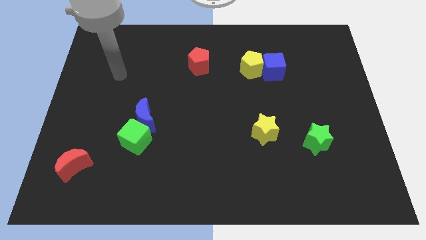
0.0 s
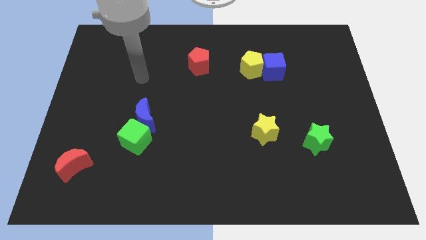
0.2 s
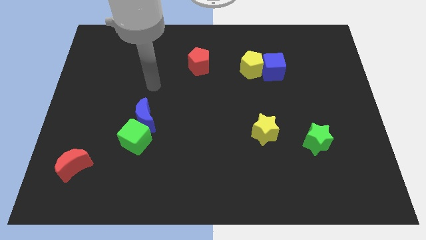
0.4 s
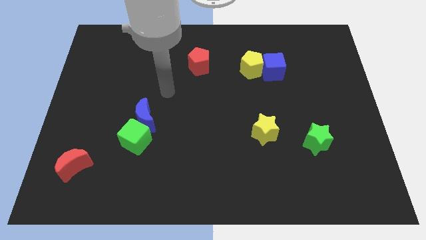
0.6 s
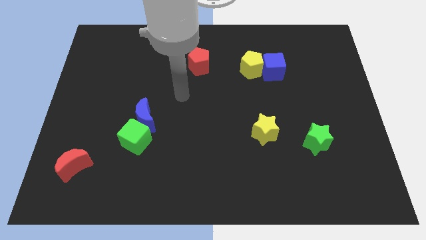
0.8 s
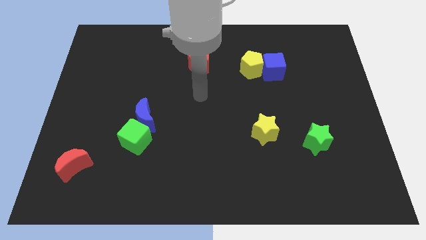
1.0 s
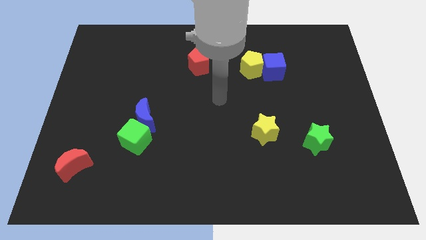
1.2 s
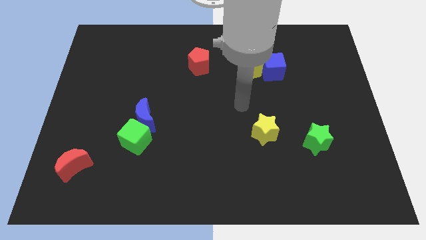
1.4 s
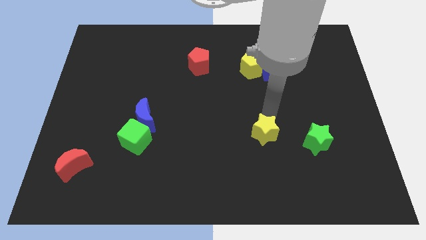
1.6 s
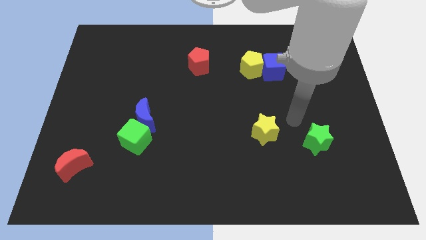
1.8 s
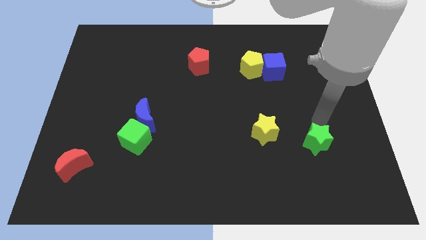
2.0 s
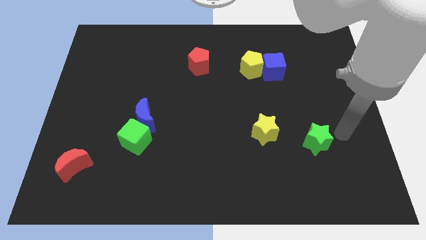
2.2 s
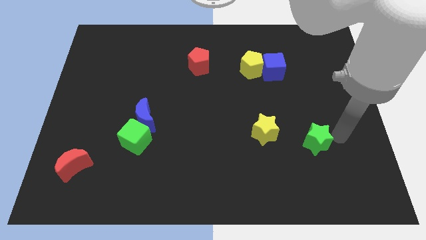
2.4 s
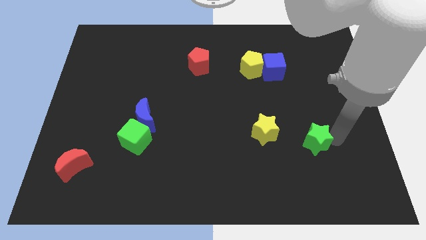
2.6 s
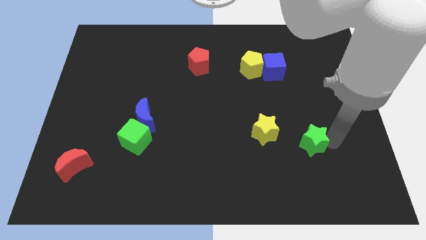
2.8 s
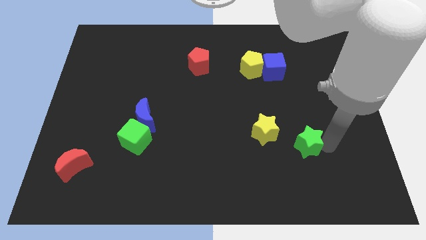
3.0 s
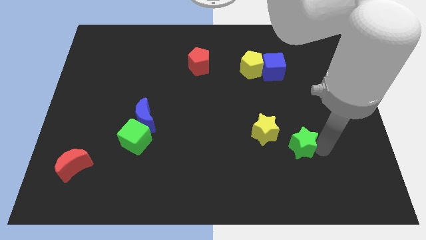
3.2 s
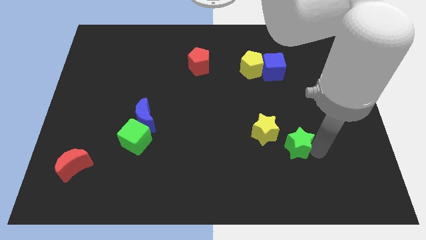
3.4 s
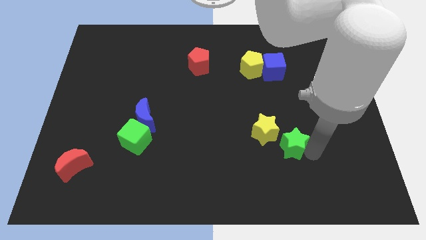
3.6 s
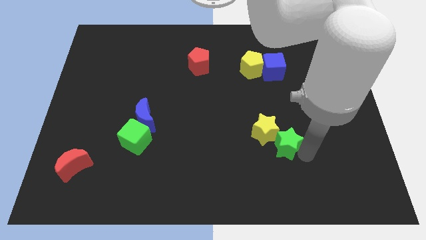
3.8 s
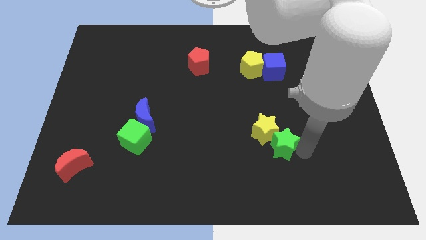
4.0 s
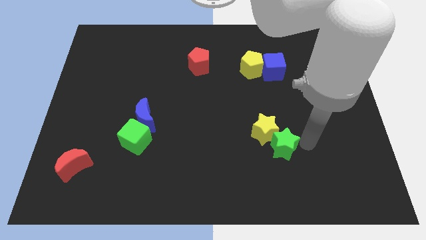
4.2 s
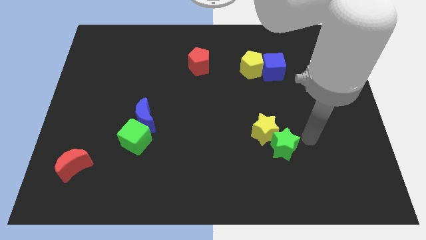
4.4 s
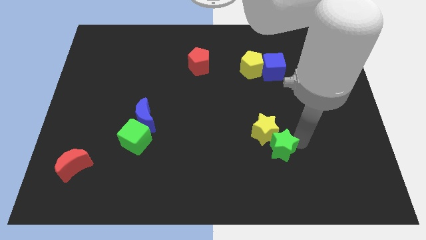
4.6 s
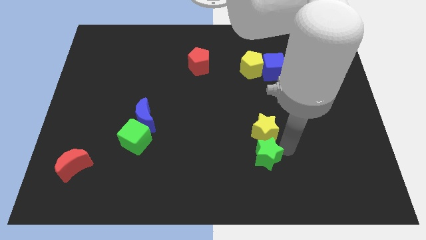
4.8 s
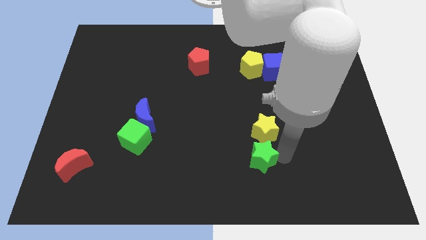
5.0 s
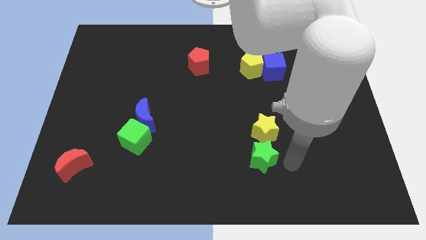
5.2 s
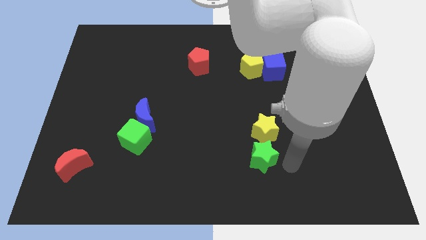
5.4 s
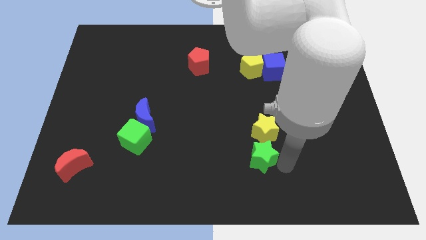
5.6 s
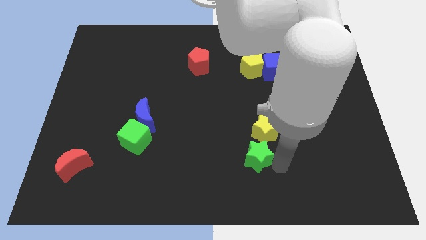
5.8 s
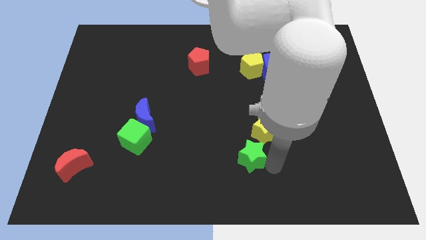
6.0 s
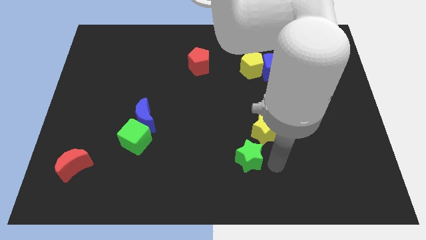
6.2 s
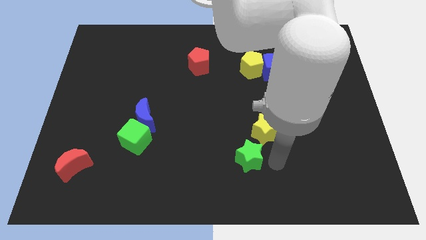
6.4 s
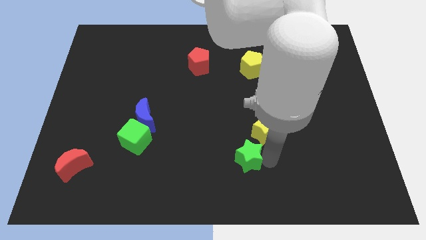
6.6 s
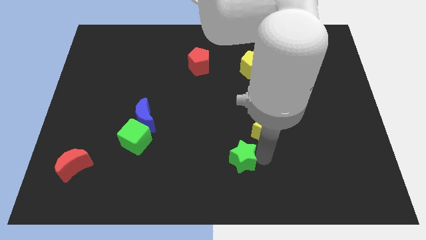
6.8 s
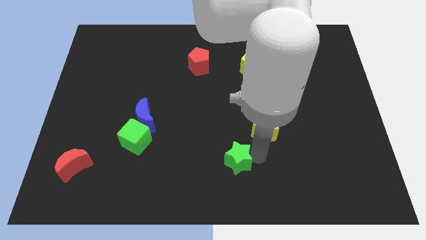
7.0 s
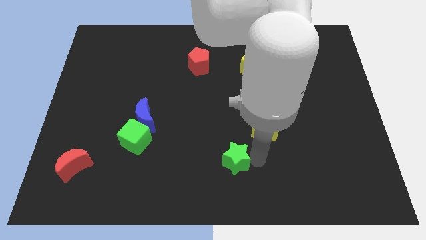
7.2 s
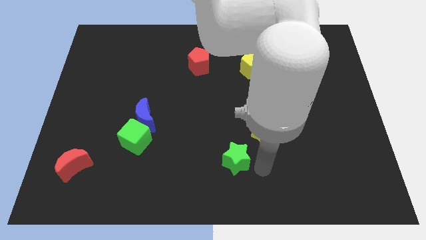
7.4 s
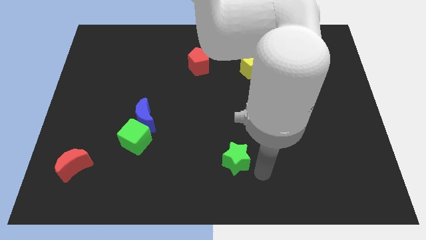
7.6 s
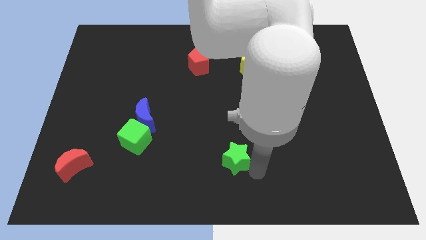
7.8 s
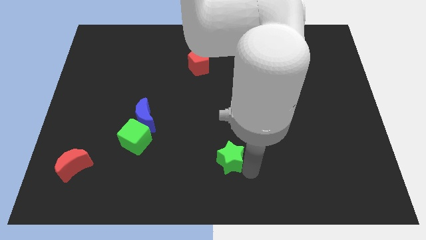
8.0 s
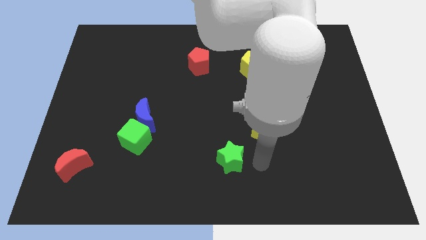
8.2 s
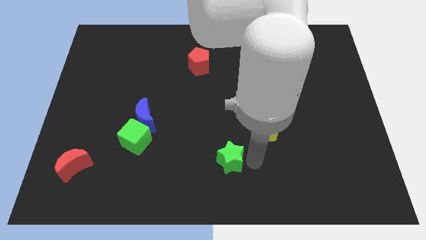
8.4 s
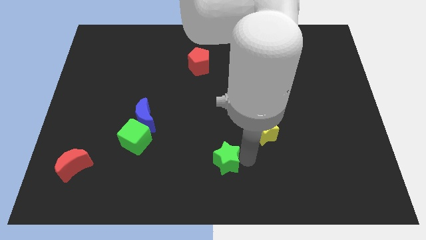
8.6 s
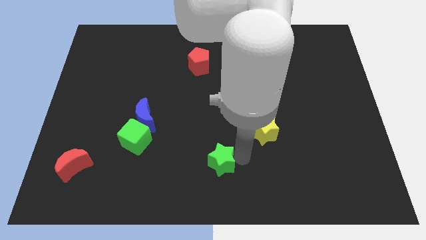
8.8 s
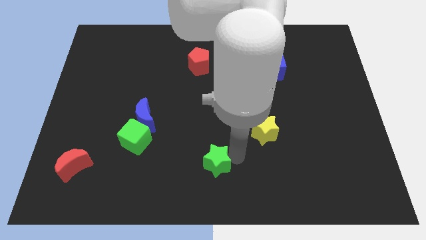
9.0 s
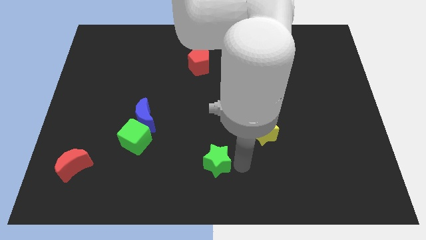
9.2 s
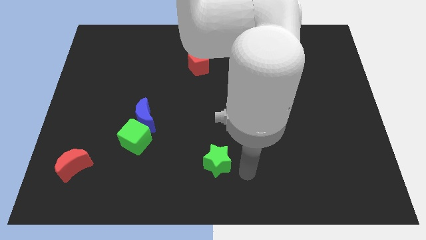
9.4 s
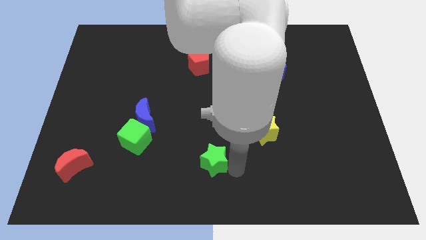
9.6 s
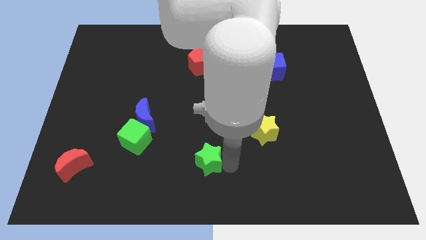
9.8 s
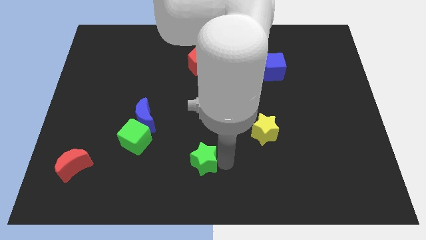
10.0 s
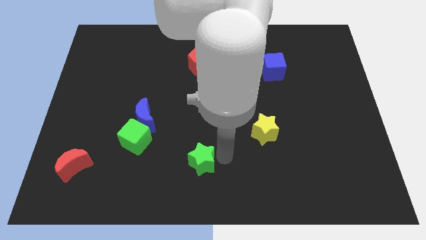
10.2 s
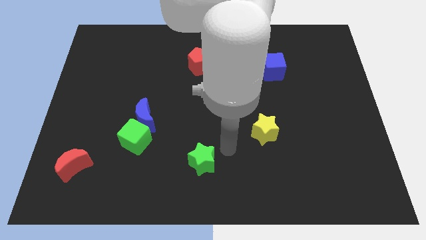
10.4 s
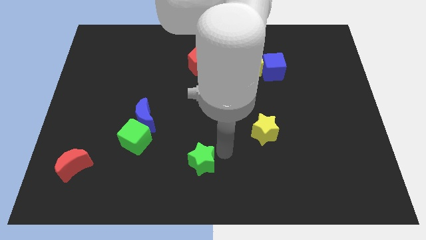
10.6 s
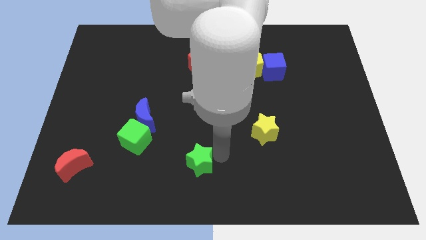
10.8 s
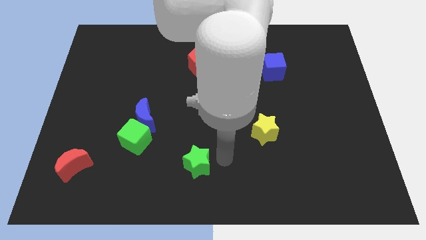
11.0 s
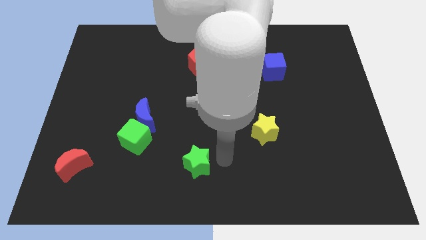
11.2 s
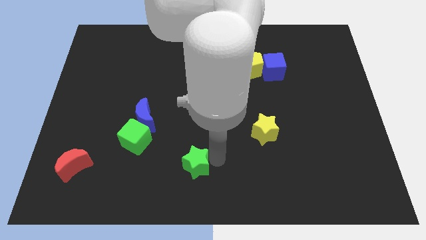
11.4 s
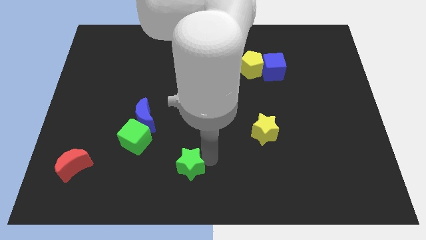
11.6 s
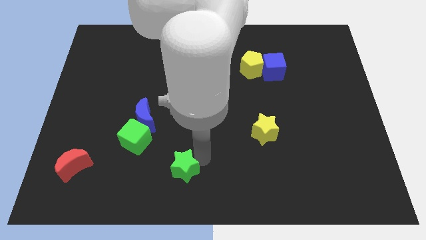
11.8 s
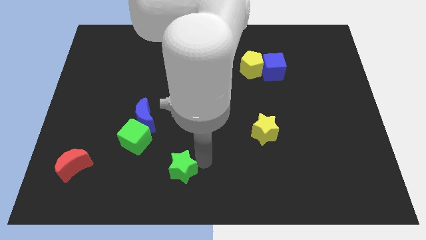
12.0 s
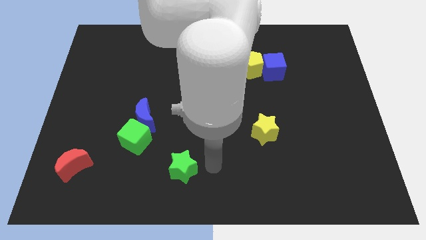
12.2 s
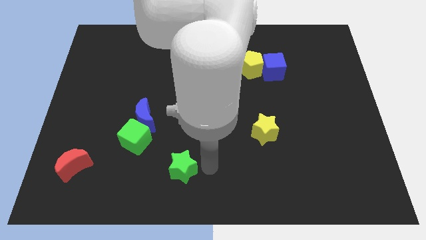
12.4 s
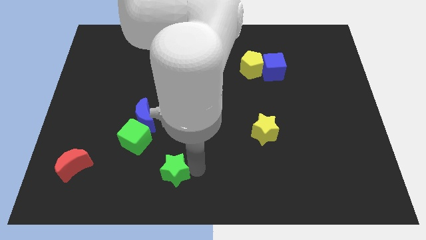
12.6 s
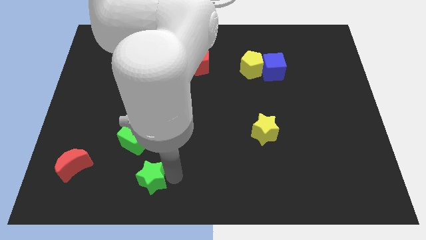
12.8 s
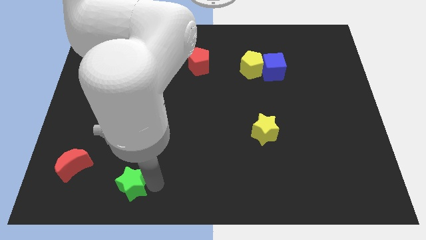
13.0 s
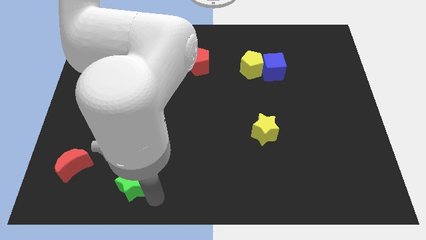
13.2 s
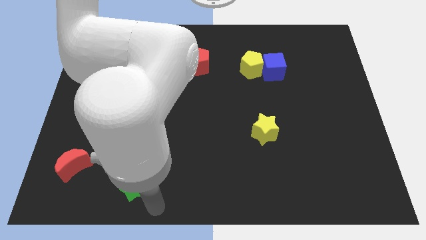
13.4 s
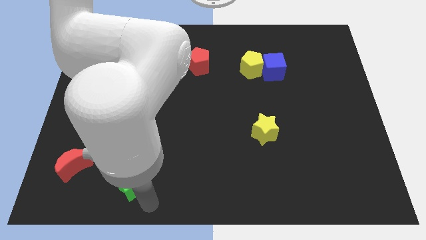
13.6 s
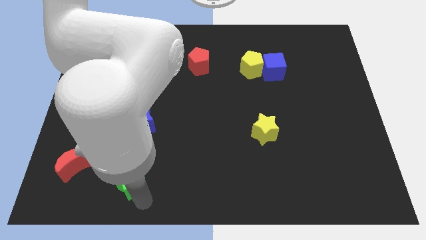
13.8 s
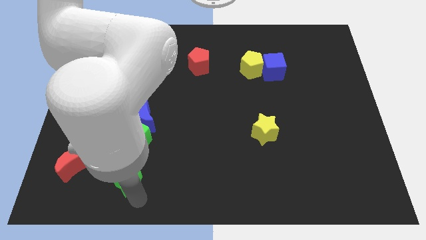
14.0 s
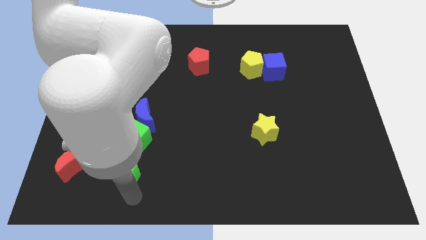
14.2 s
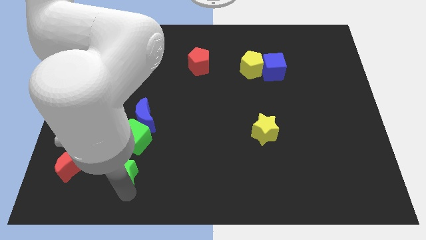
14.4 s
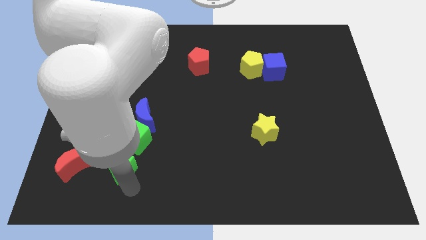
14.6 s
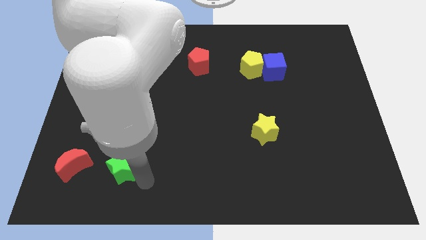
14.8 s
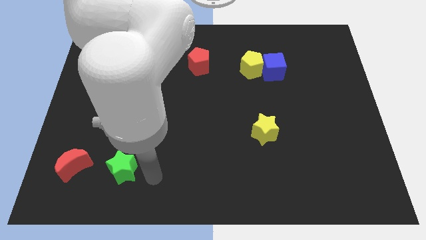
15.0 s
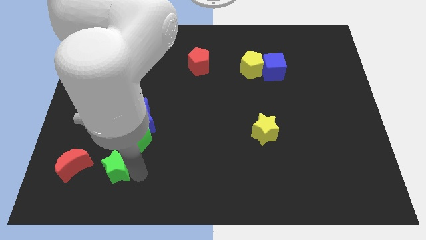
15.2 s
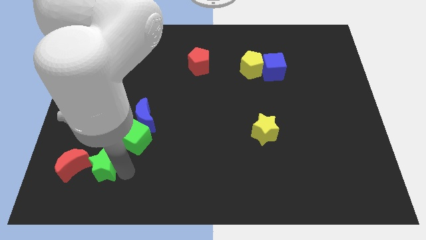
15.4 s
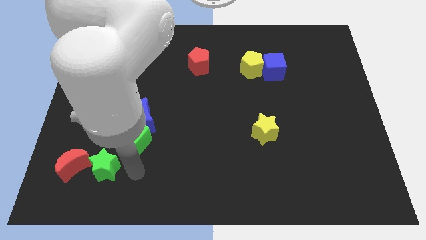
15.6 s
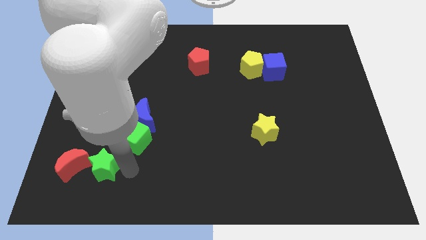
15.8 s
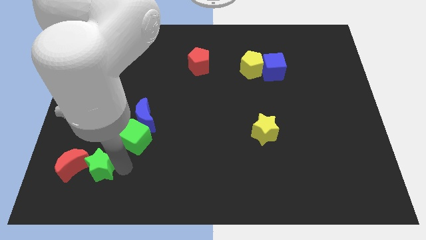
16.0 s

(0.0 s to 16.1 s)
move the green star to the red moon

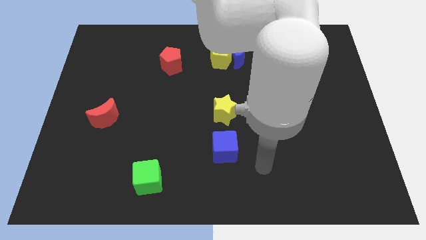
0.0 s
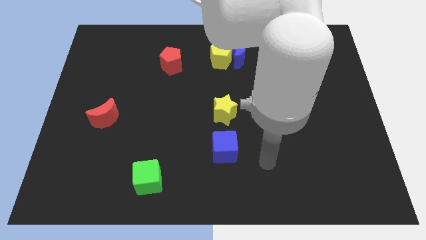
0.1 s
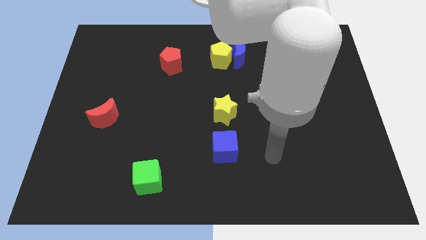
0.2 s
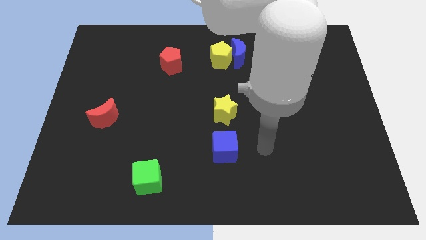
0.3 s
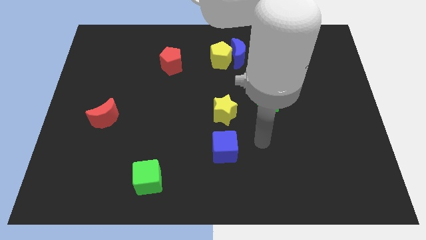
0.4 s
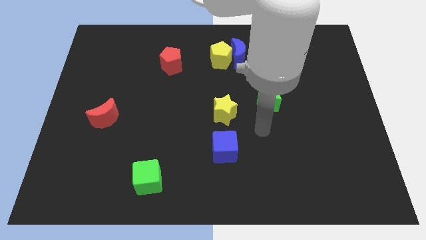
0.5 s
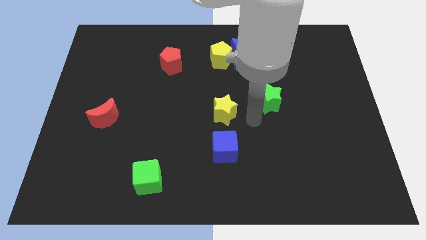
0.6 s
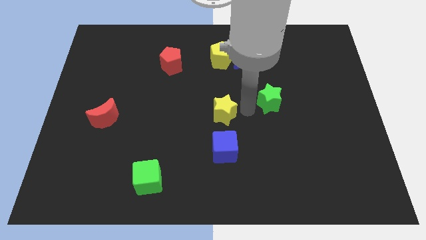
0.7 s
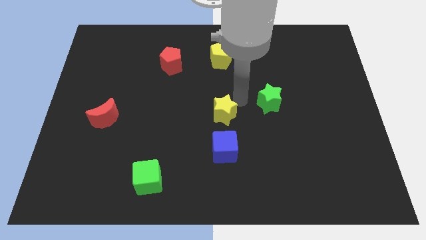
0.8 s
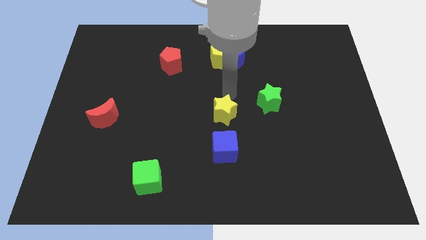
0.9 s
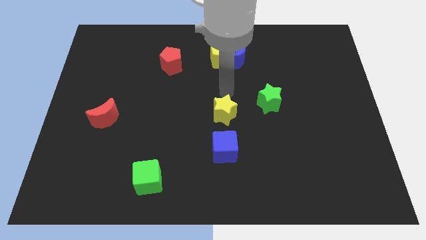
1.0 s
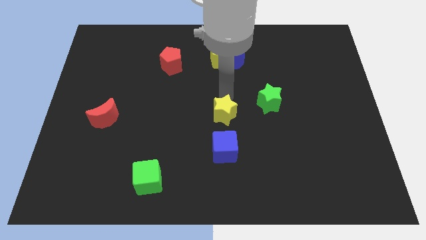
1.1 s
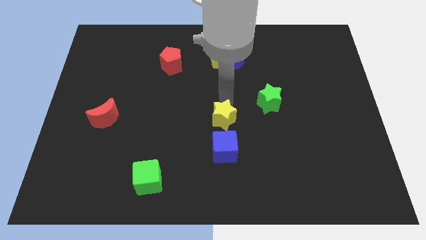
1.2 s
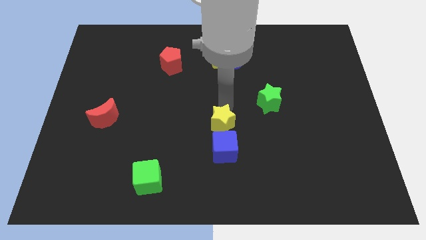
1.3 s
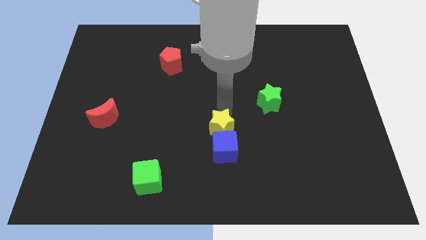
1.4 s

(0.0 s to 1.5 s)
slide the yellow star next to the blue cube
